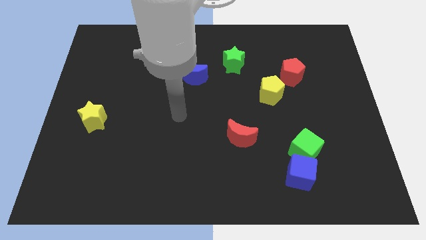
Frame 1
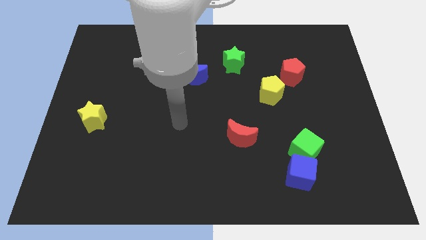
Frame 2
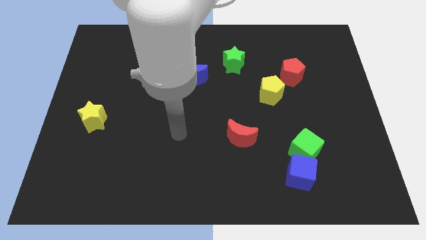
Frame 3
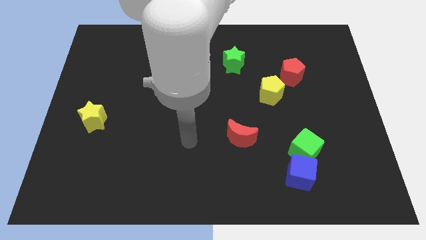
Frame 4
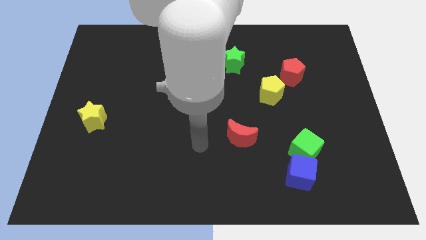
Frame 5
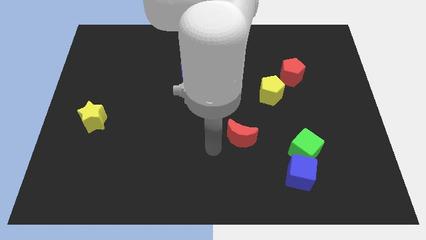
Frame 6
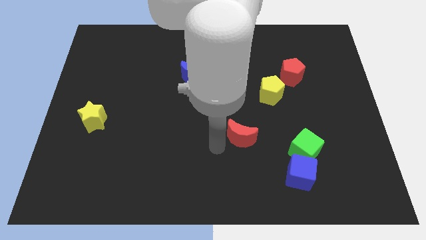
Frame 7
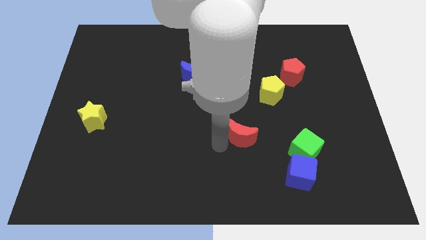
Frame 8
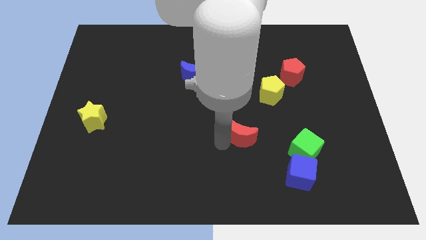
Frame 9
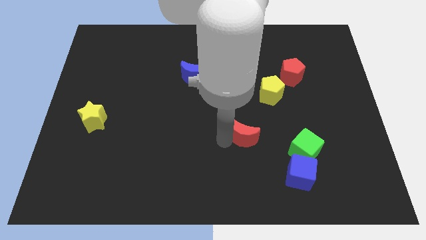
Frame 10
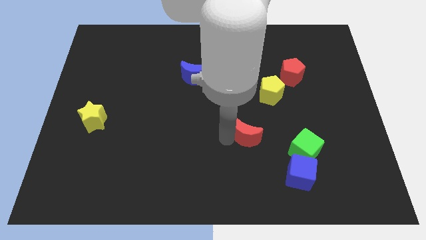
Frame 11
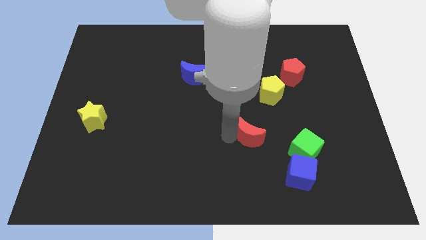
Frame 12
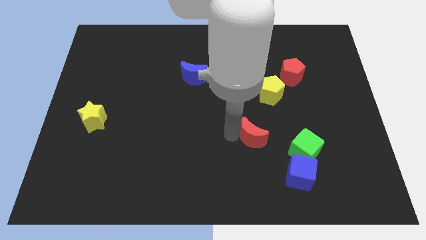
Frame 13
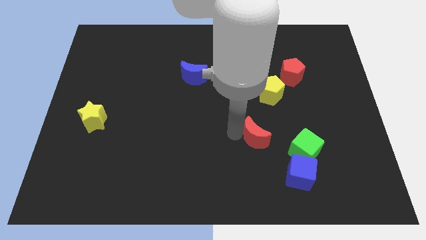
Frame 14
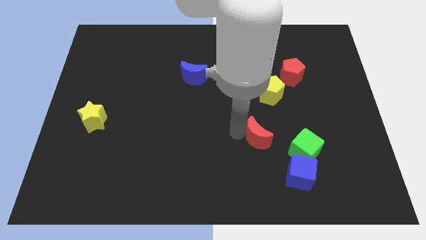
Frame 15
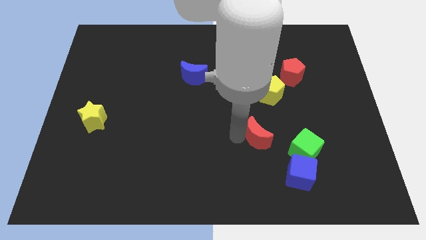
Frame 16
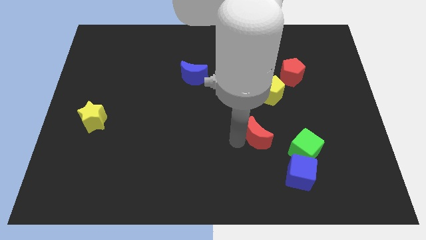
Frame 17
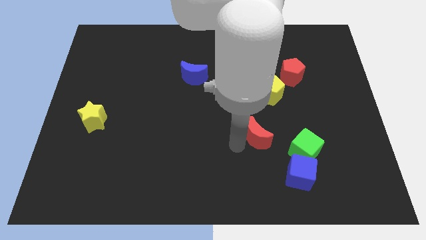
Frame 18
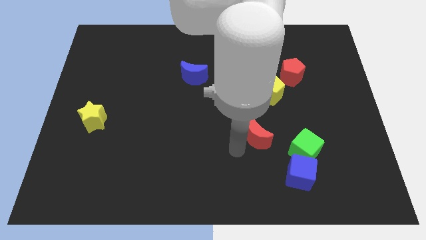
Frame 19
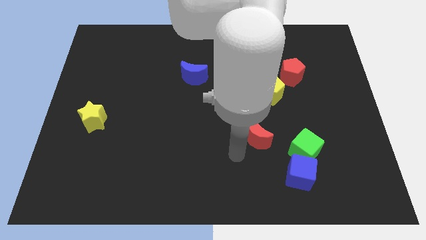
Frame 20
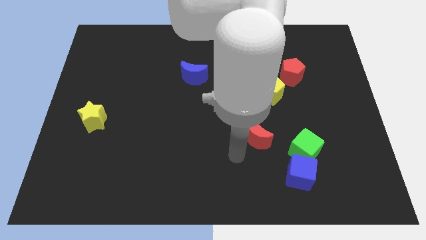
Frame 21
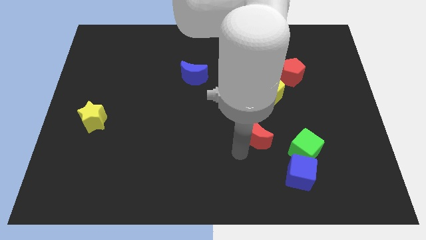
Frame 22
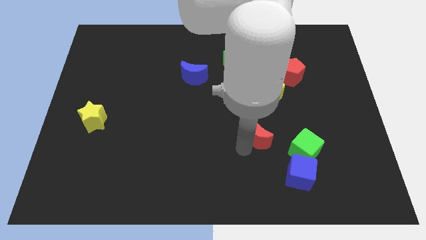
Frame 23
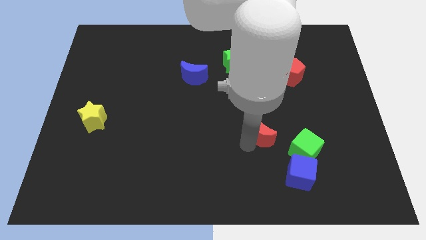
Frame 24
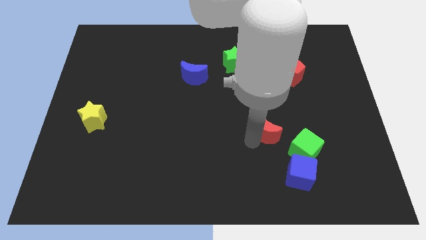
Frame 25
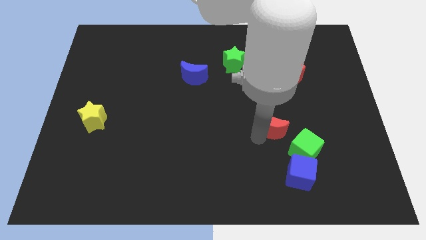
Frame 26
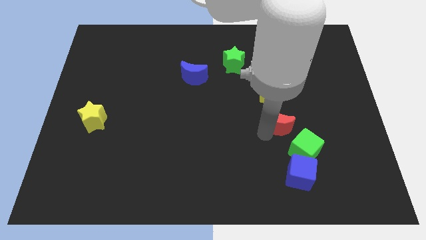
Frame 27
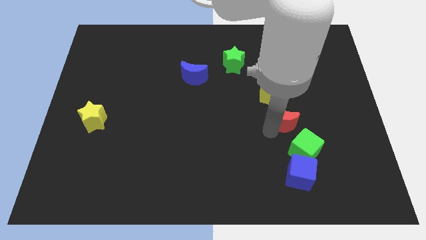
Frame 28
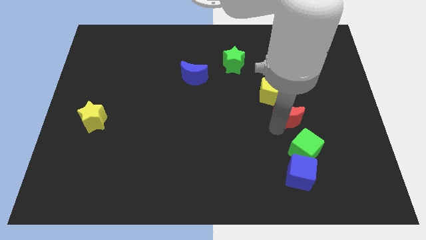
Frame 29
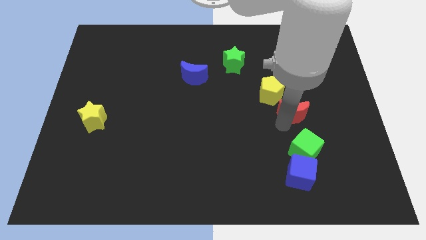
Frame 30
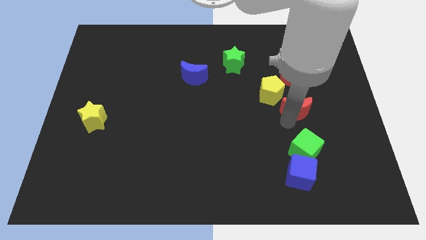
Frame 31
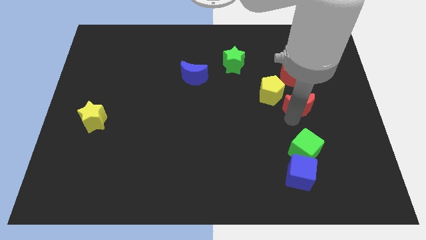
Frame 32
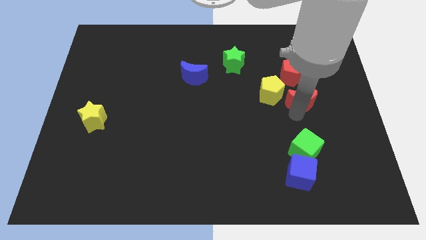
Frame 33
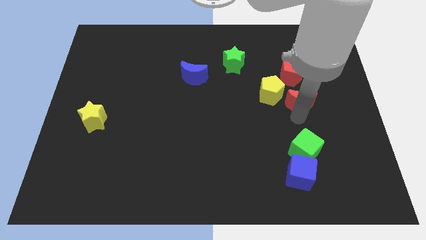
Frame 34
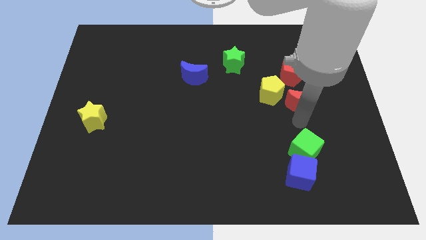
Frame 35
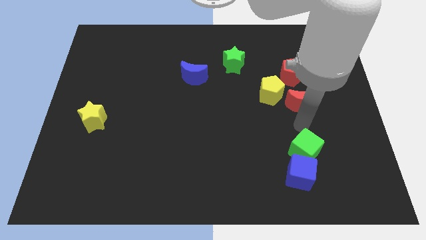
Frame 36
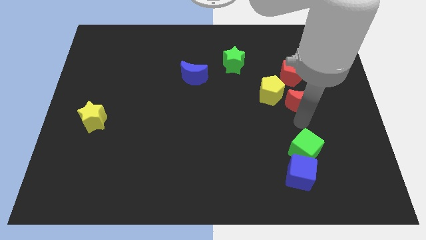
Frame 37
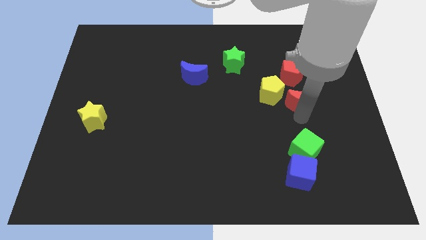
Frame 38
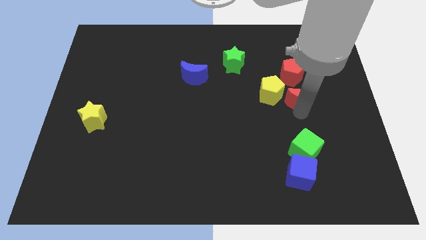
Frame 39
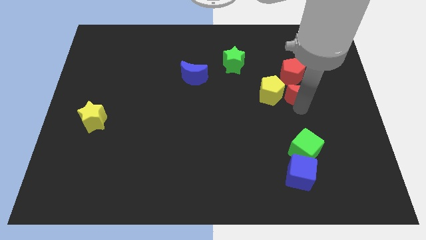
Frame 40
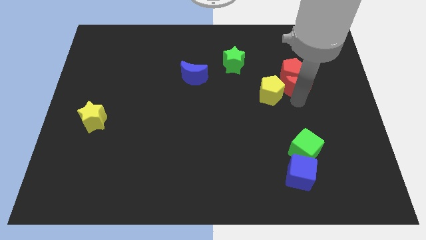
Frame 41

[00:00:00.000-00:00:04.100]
push the red moon upwards and to the right diagonally

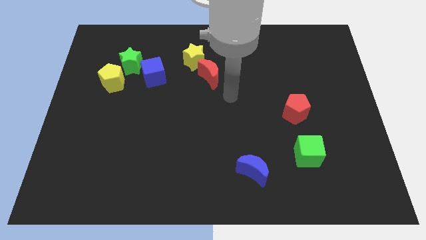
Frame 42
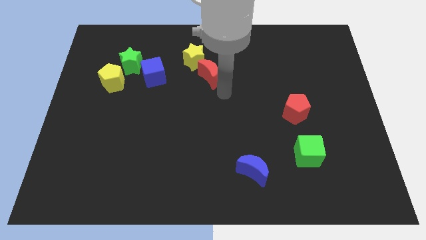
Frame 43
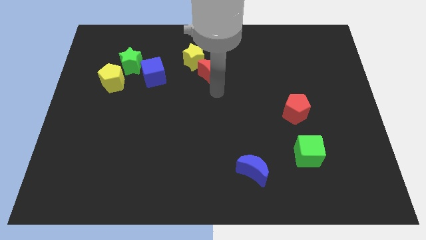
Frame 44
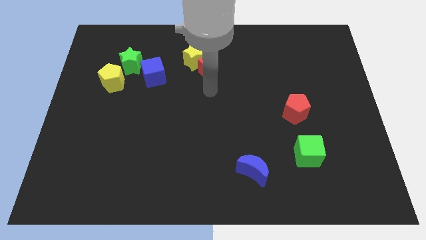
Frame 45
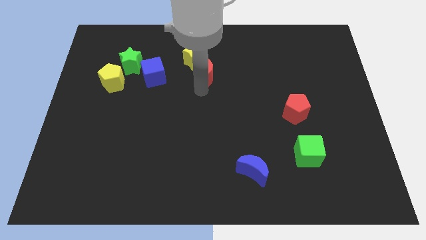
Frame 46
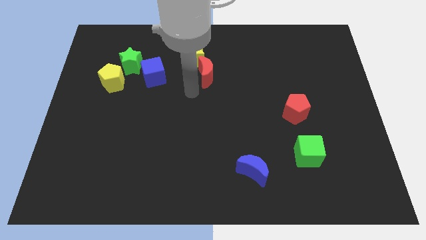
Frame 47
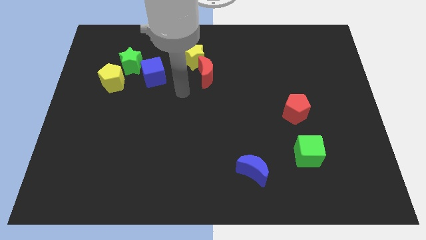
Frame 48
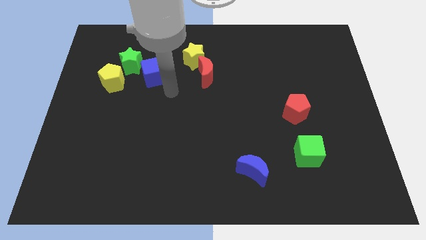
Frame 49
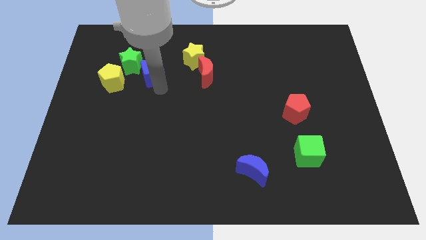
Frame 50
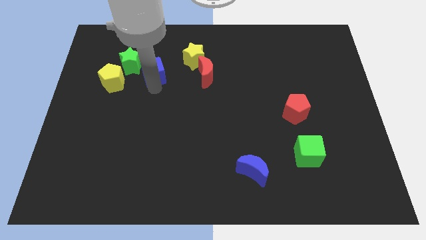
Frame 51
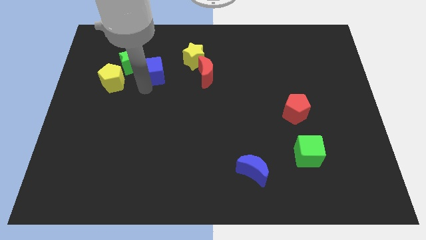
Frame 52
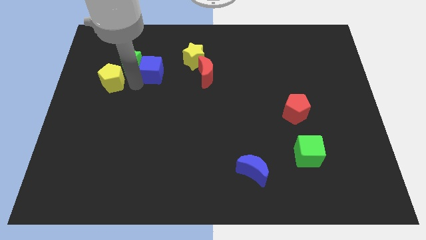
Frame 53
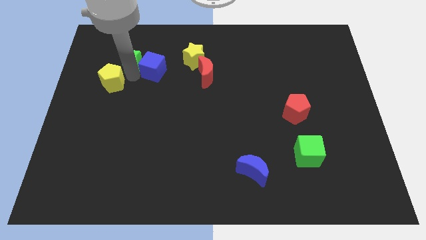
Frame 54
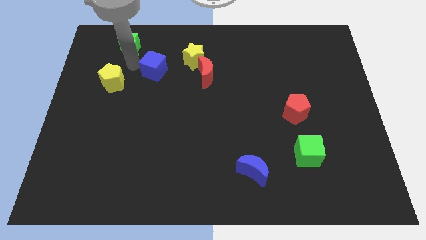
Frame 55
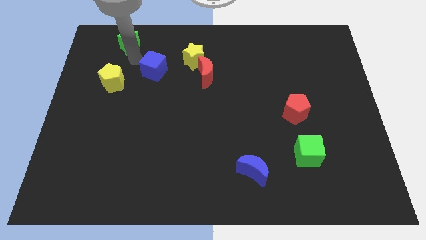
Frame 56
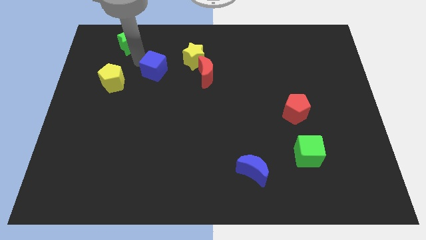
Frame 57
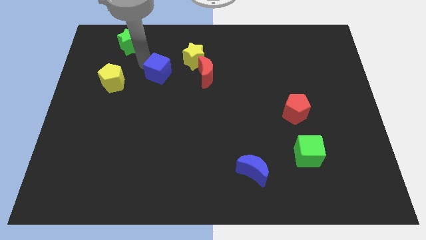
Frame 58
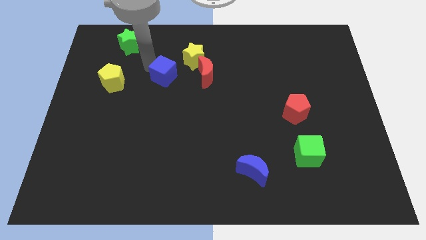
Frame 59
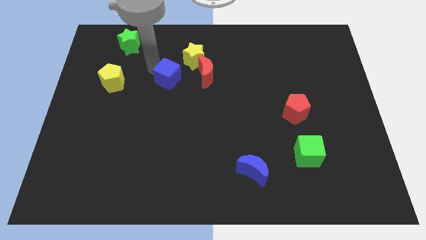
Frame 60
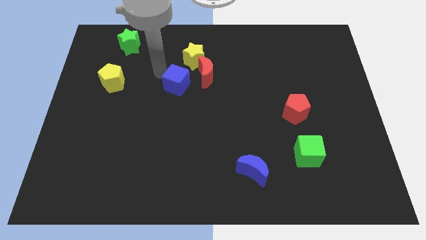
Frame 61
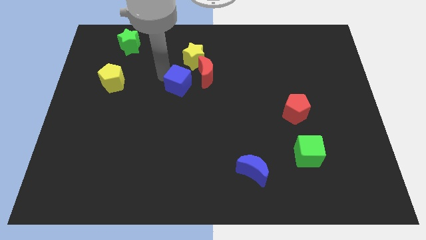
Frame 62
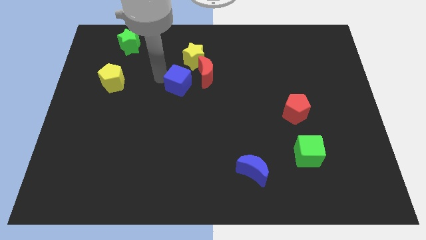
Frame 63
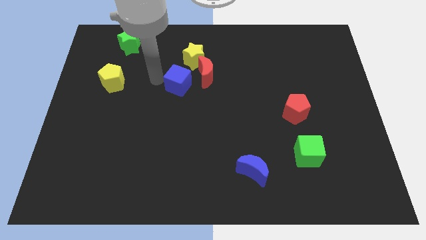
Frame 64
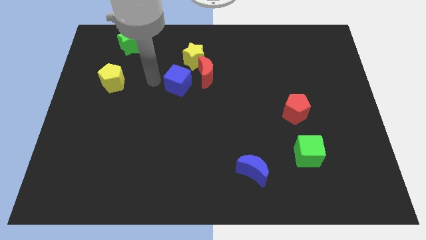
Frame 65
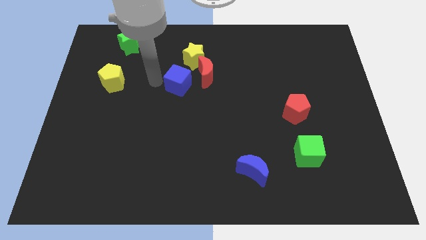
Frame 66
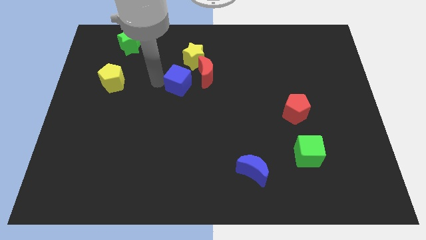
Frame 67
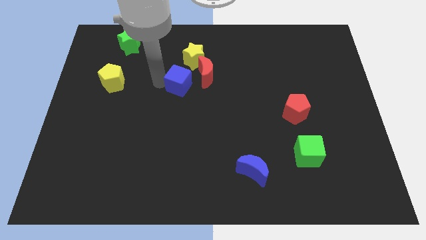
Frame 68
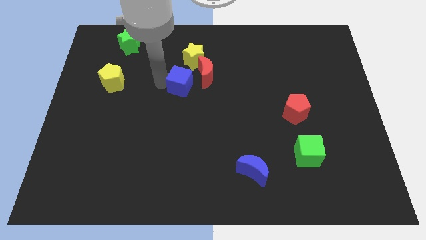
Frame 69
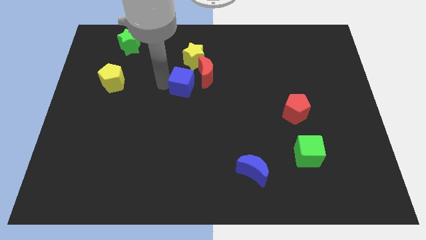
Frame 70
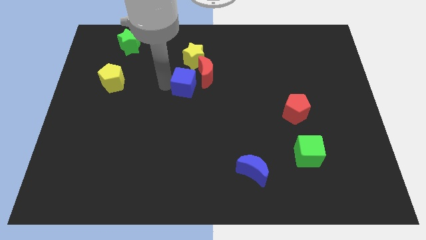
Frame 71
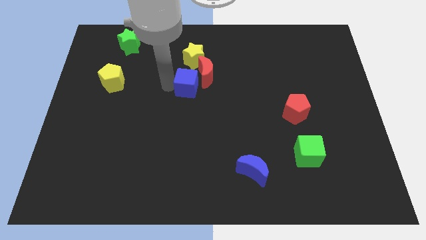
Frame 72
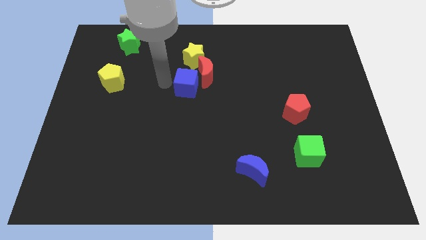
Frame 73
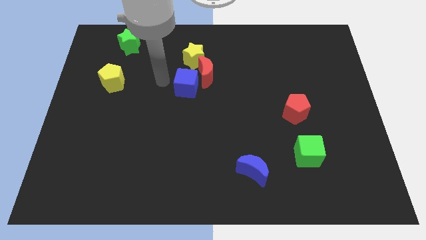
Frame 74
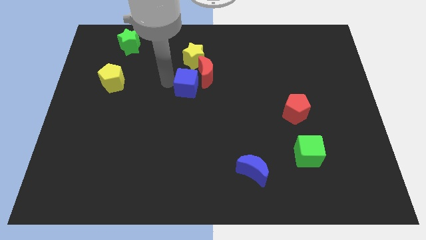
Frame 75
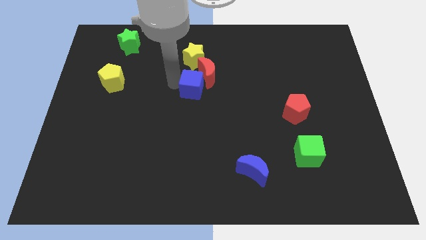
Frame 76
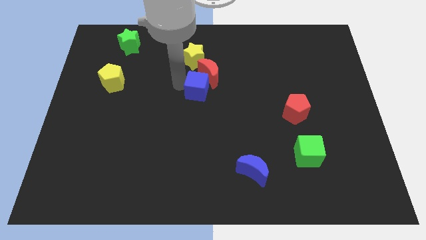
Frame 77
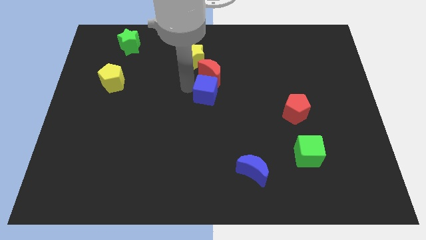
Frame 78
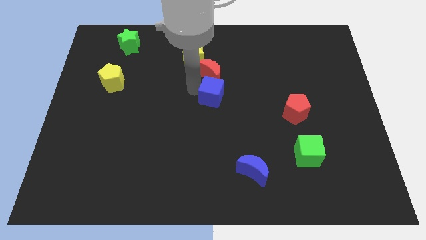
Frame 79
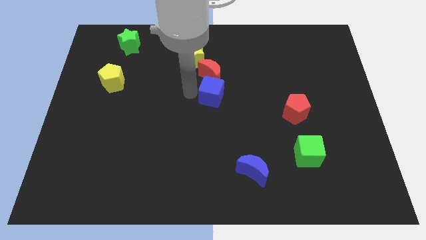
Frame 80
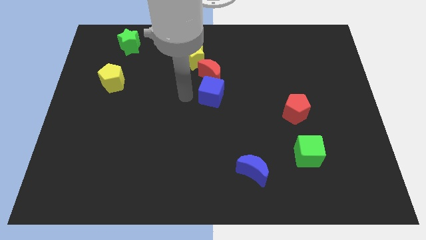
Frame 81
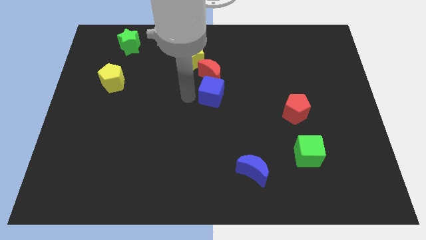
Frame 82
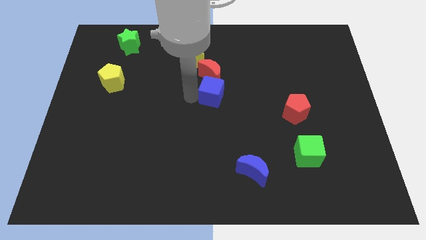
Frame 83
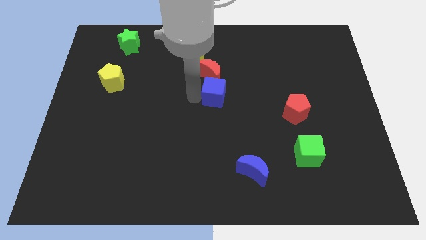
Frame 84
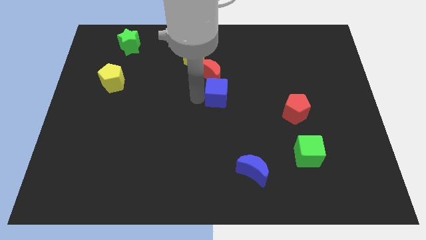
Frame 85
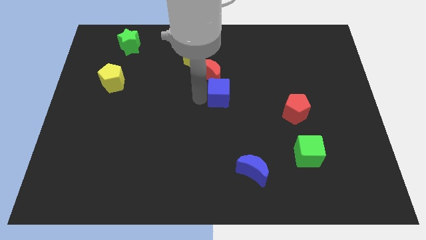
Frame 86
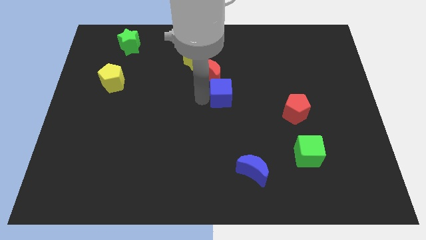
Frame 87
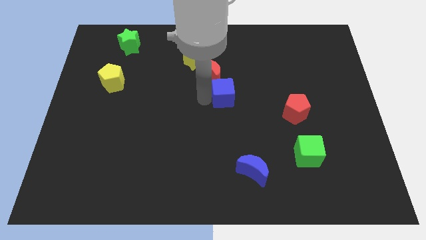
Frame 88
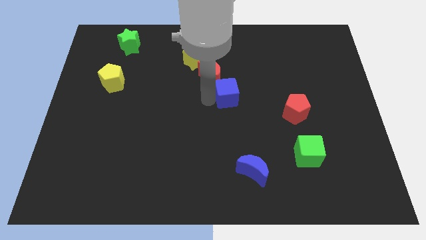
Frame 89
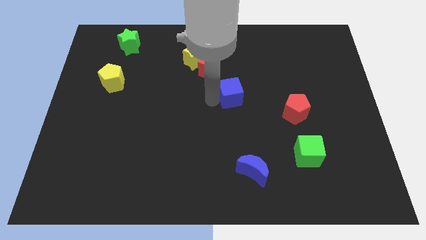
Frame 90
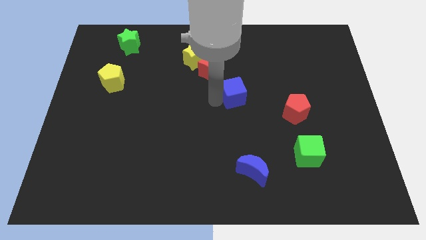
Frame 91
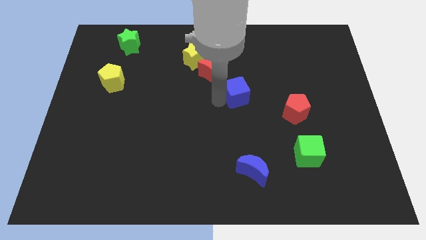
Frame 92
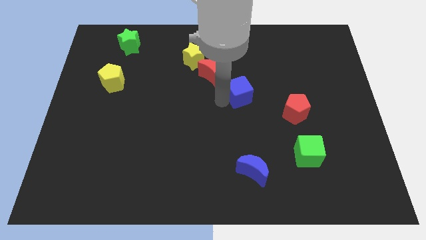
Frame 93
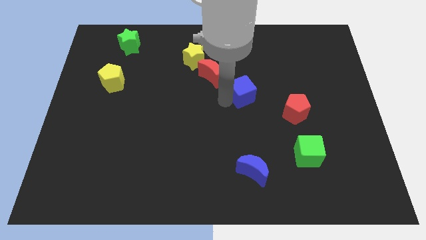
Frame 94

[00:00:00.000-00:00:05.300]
move the blue cube right
